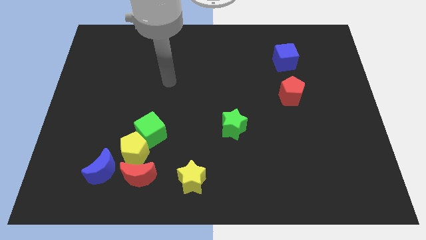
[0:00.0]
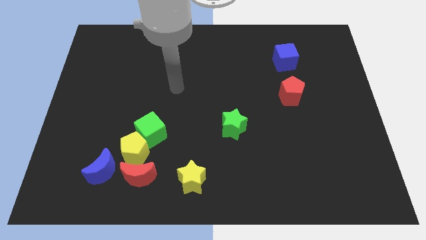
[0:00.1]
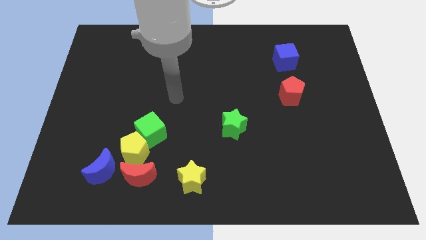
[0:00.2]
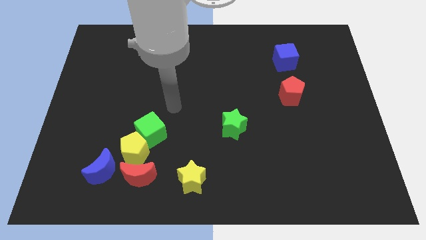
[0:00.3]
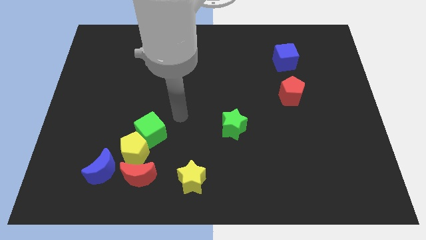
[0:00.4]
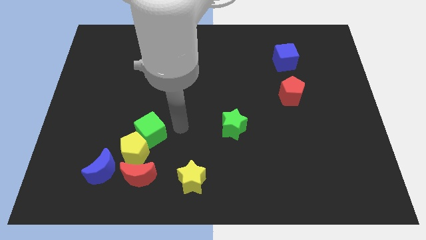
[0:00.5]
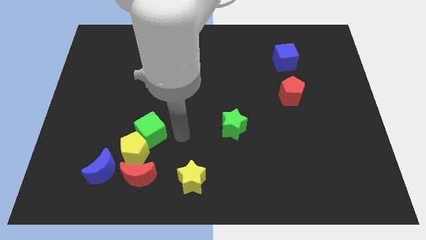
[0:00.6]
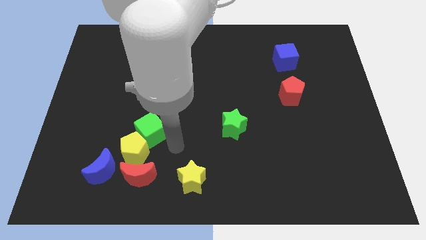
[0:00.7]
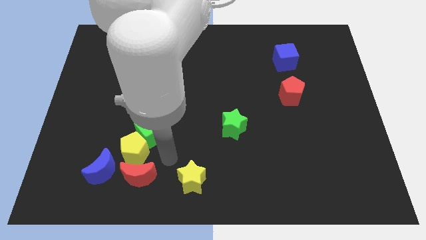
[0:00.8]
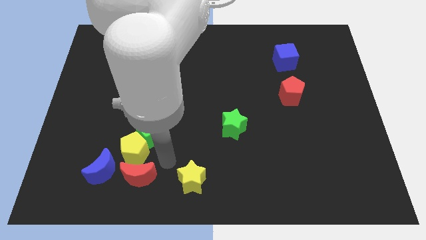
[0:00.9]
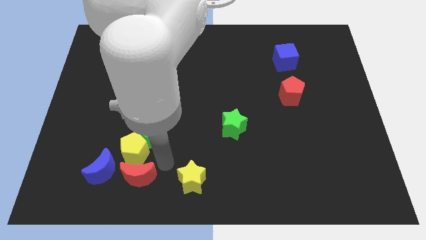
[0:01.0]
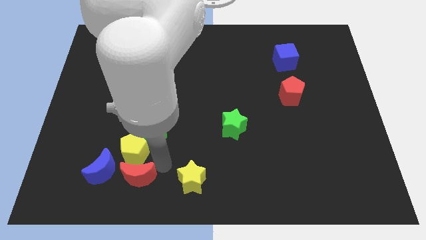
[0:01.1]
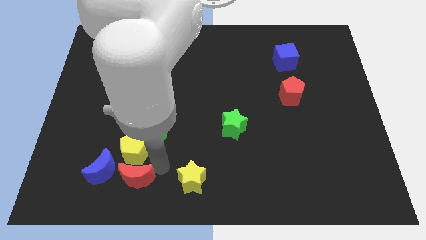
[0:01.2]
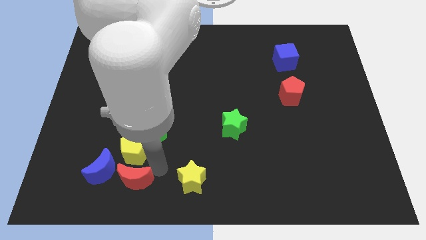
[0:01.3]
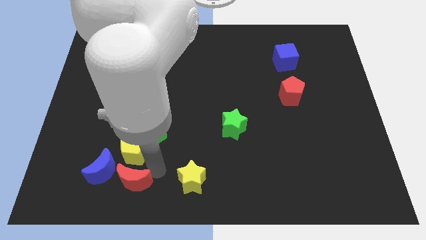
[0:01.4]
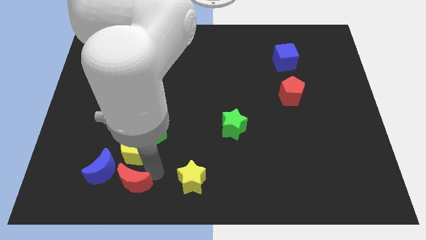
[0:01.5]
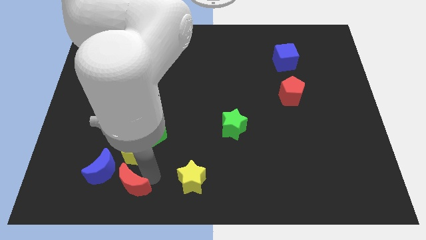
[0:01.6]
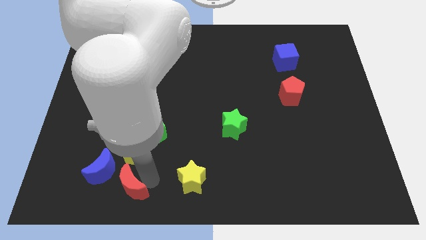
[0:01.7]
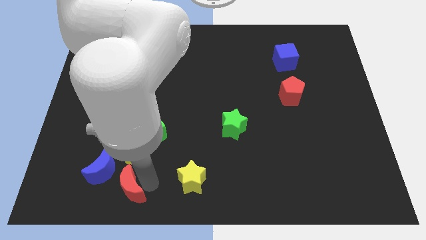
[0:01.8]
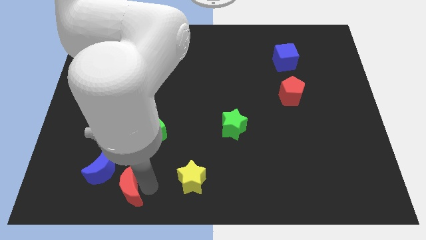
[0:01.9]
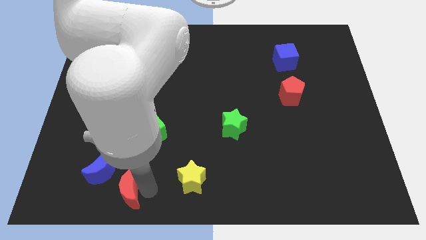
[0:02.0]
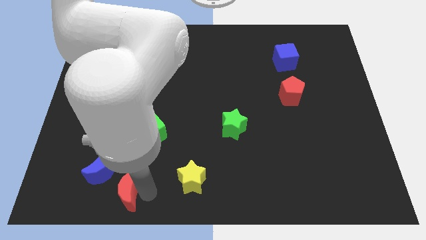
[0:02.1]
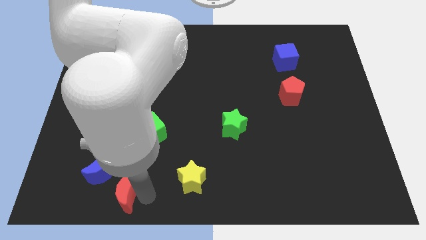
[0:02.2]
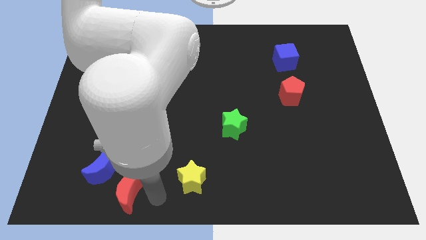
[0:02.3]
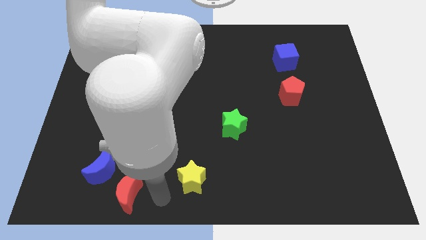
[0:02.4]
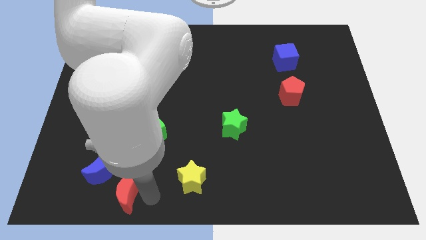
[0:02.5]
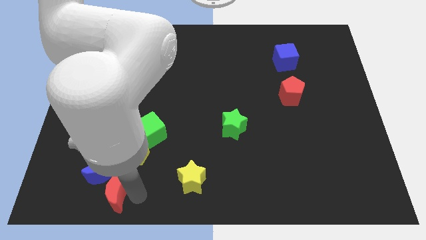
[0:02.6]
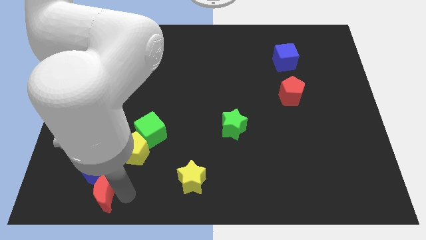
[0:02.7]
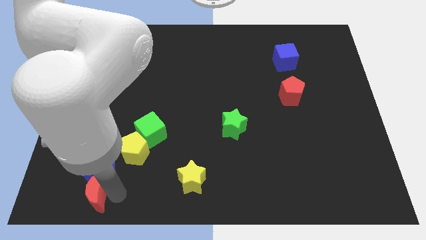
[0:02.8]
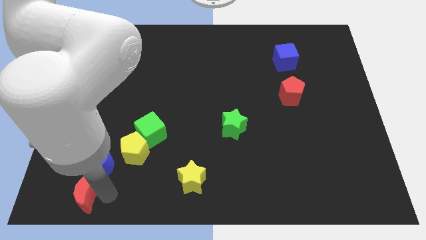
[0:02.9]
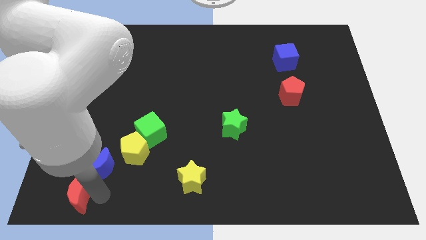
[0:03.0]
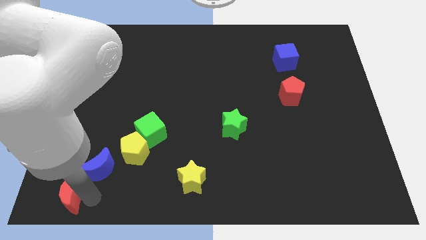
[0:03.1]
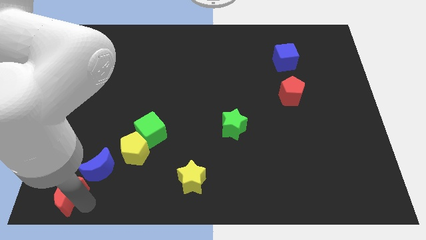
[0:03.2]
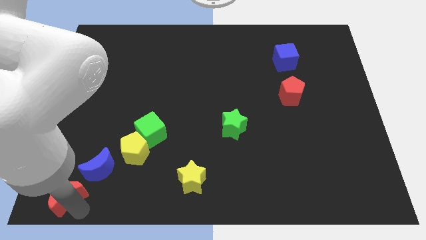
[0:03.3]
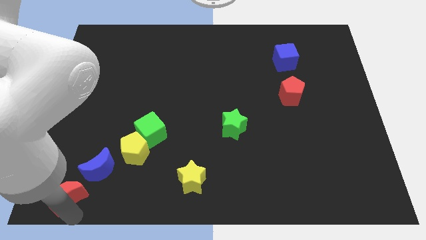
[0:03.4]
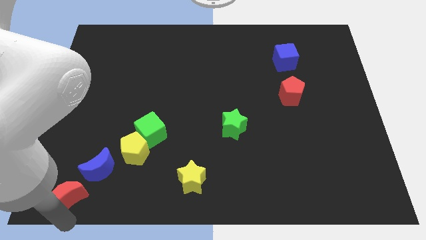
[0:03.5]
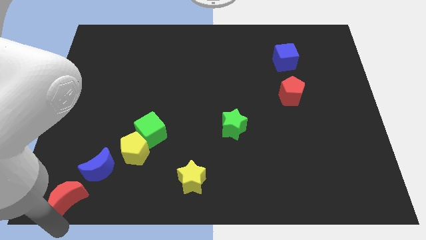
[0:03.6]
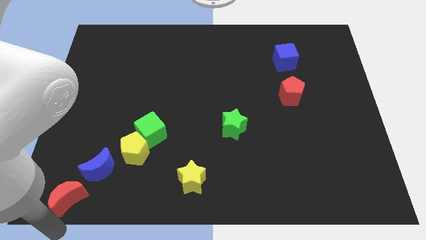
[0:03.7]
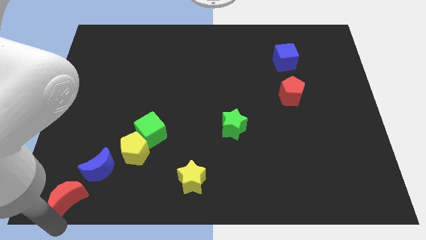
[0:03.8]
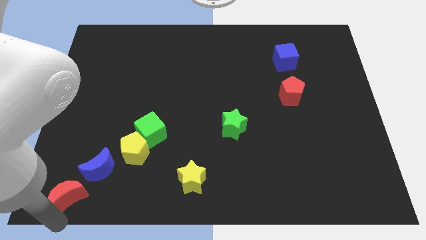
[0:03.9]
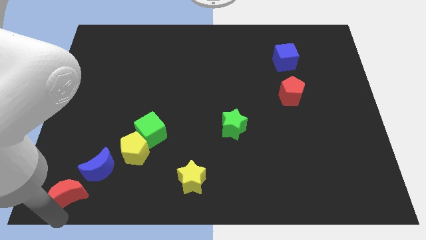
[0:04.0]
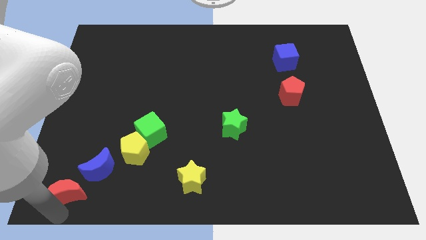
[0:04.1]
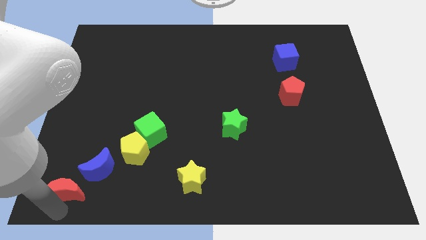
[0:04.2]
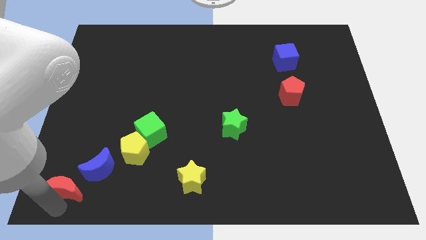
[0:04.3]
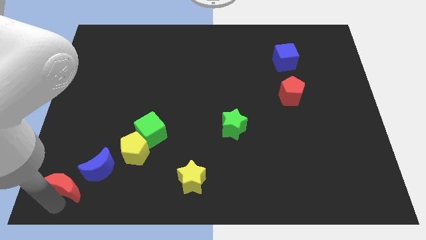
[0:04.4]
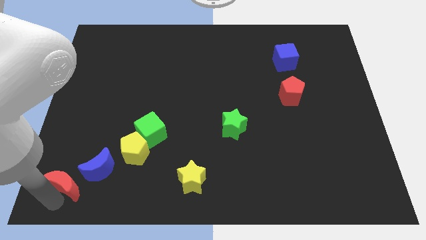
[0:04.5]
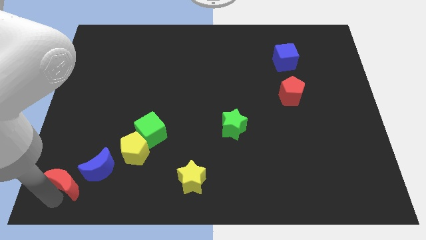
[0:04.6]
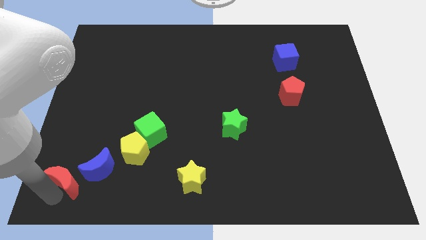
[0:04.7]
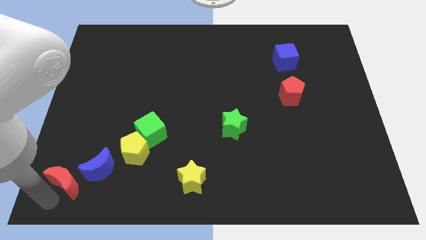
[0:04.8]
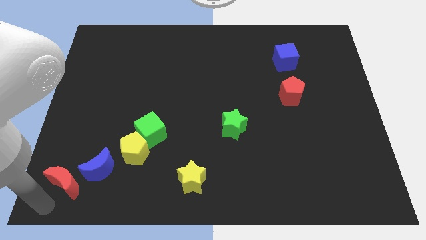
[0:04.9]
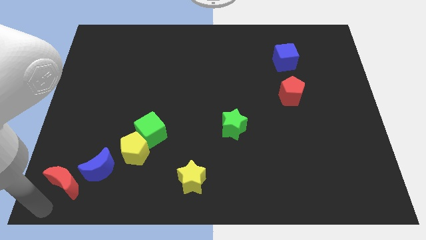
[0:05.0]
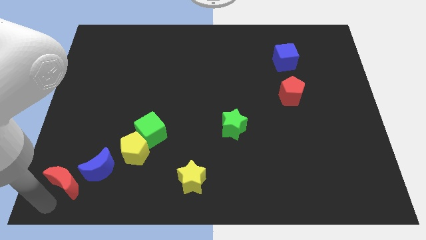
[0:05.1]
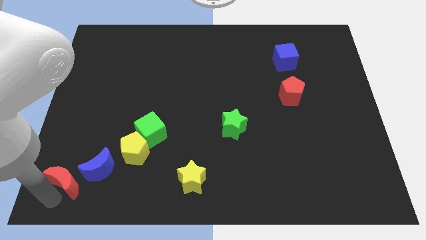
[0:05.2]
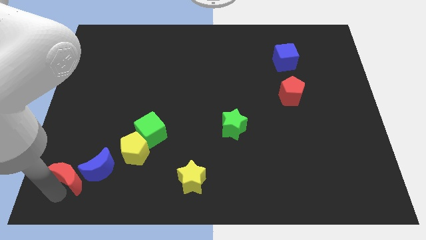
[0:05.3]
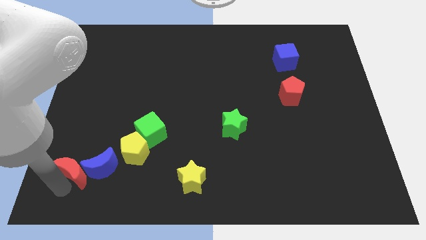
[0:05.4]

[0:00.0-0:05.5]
slightly slide the red moon diagonally upwards and left

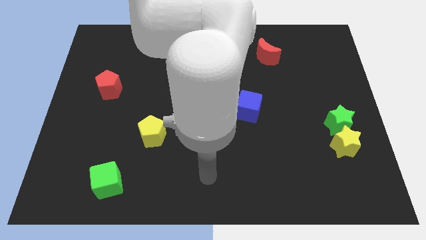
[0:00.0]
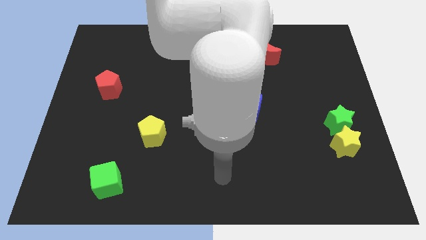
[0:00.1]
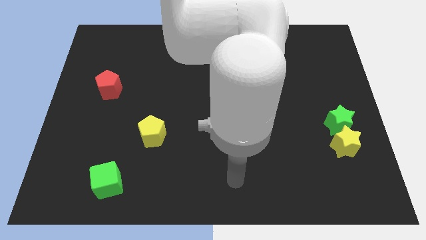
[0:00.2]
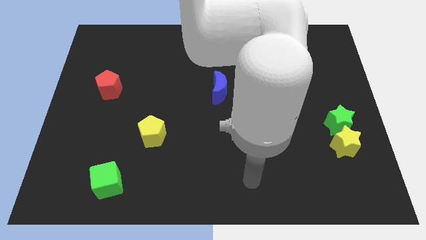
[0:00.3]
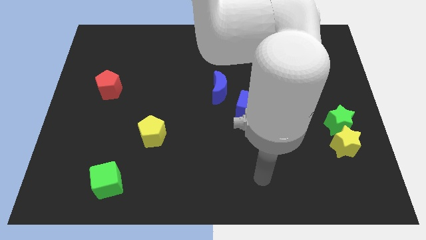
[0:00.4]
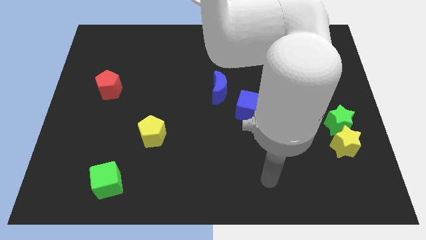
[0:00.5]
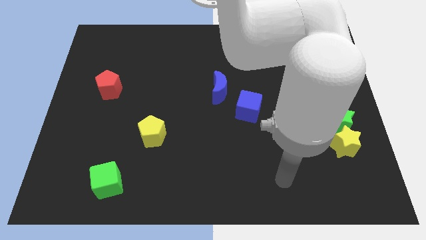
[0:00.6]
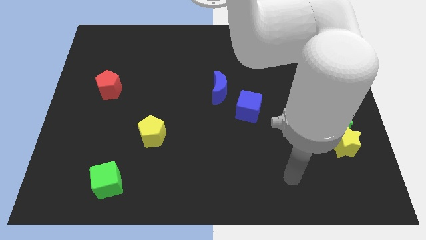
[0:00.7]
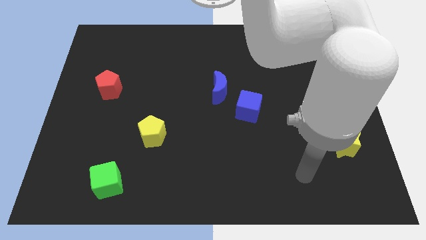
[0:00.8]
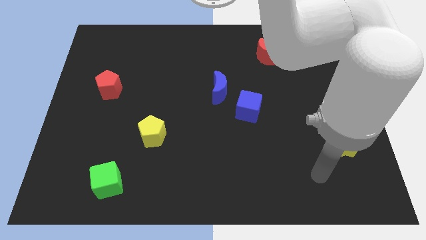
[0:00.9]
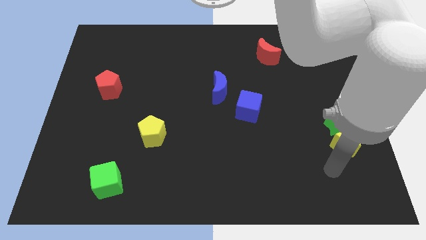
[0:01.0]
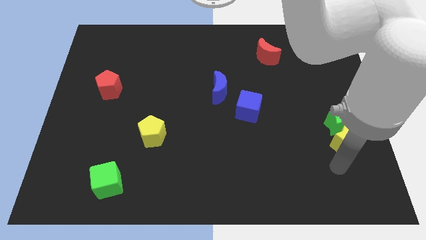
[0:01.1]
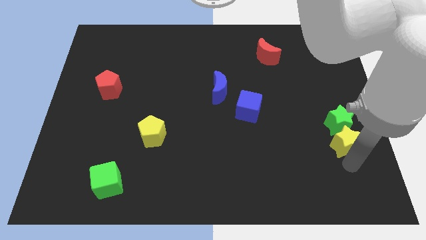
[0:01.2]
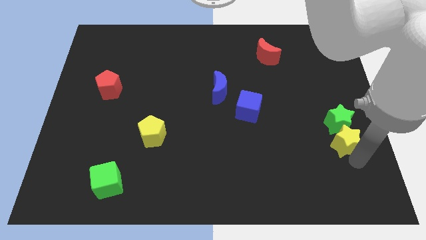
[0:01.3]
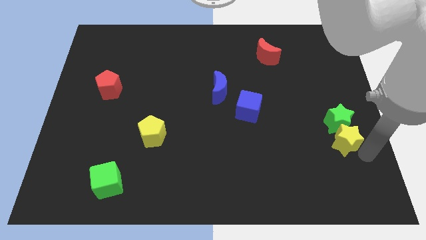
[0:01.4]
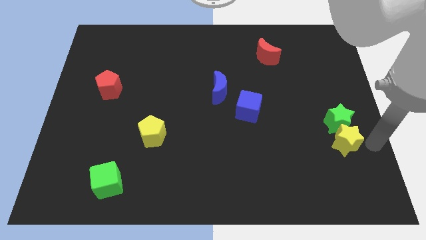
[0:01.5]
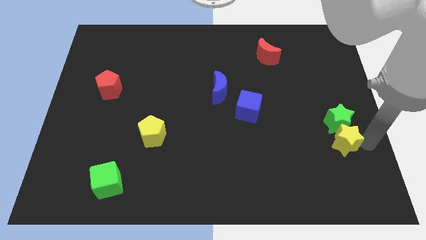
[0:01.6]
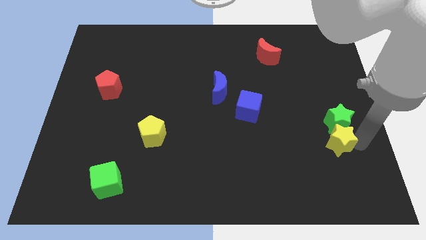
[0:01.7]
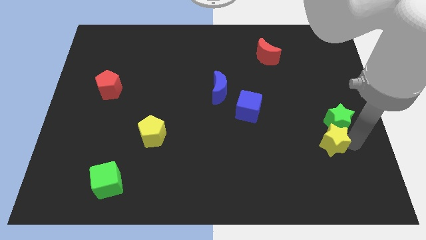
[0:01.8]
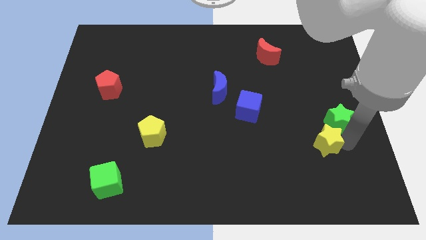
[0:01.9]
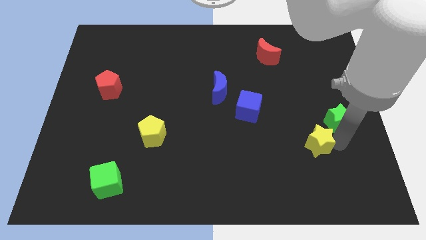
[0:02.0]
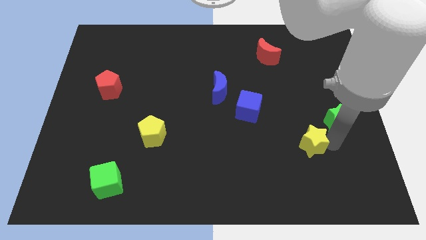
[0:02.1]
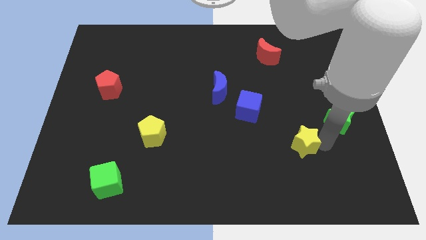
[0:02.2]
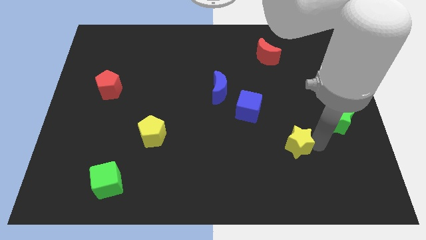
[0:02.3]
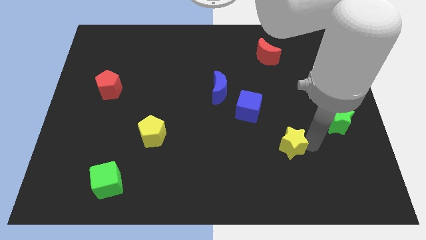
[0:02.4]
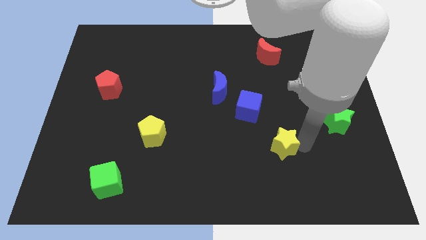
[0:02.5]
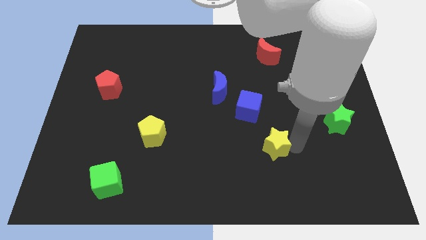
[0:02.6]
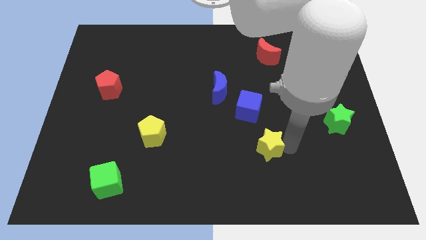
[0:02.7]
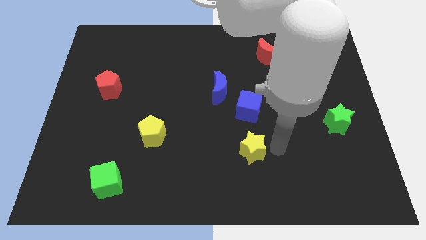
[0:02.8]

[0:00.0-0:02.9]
move the yellow star to the left
